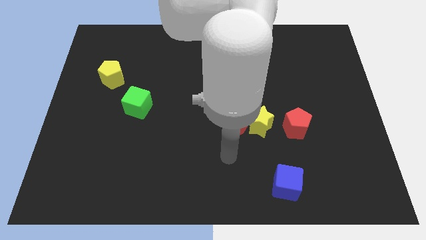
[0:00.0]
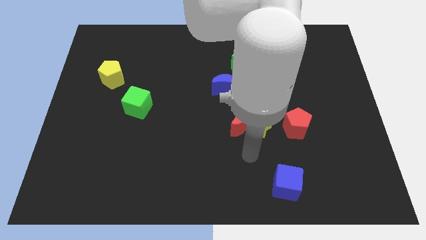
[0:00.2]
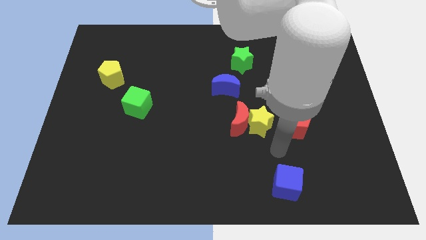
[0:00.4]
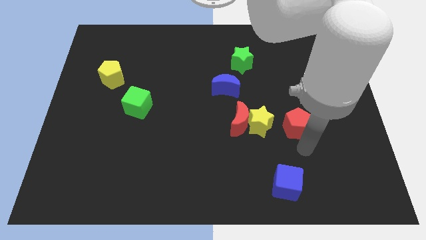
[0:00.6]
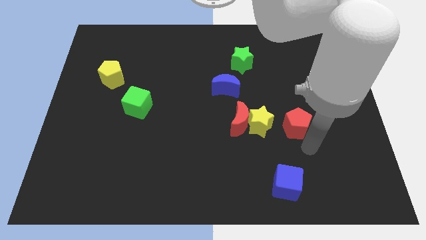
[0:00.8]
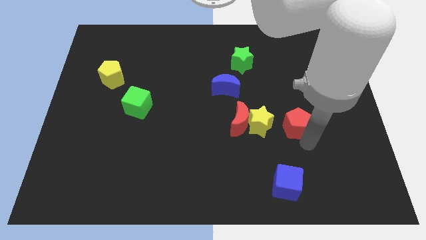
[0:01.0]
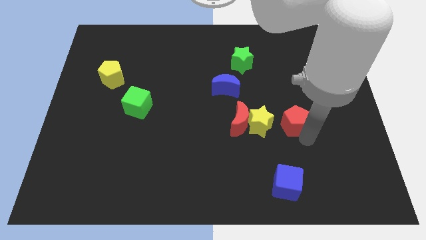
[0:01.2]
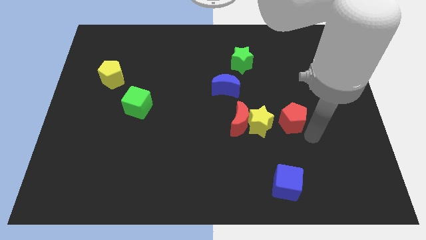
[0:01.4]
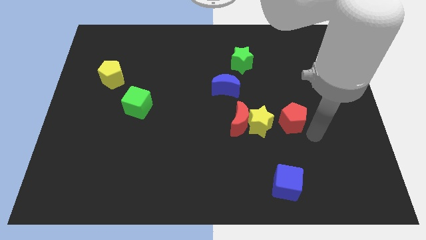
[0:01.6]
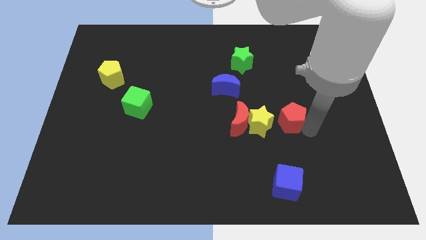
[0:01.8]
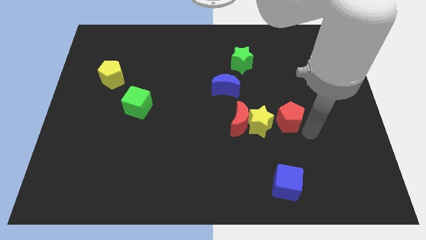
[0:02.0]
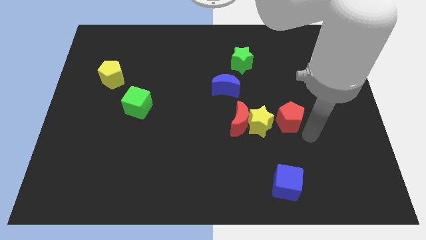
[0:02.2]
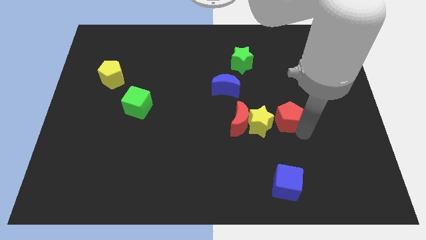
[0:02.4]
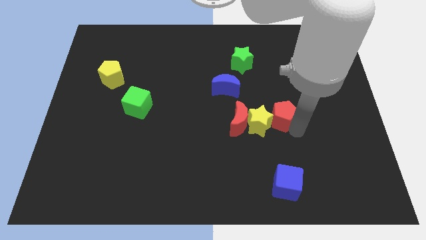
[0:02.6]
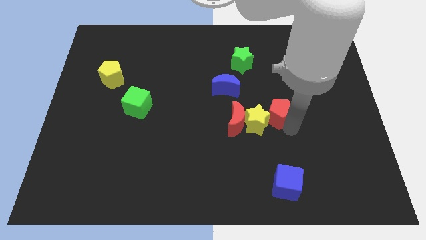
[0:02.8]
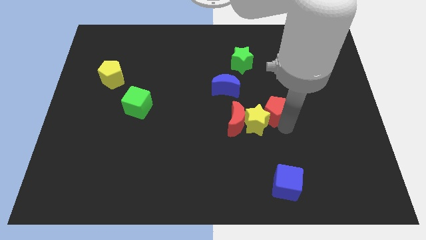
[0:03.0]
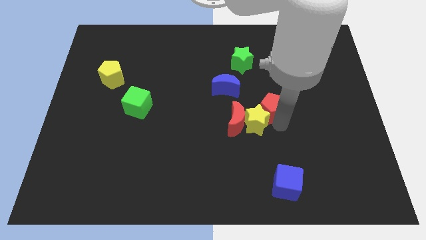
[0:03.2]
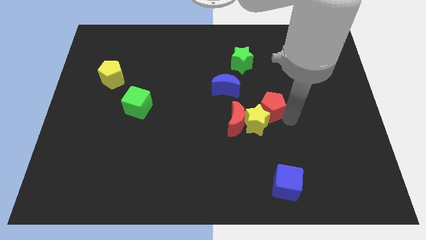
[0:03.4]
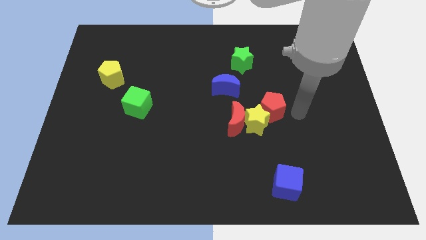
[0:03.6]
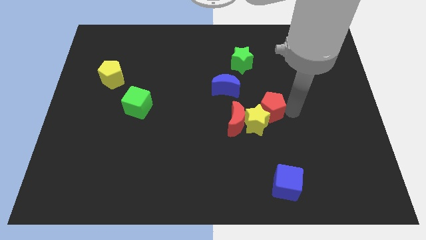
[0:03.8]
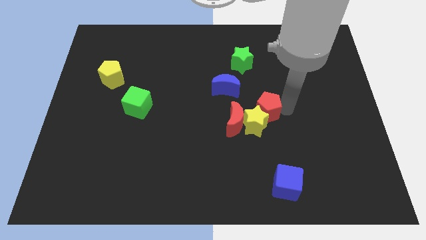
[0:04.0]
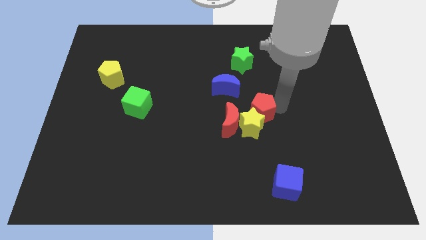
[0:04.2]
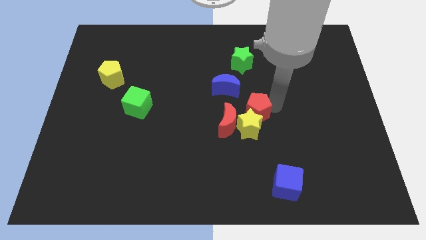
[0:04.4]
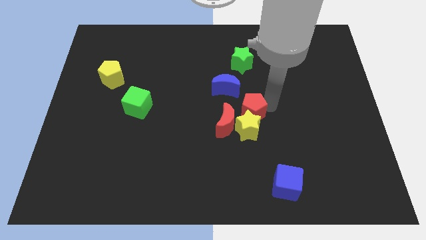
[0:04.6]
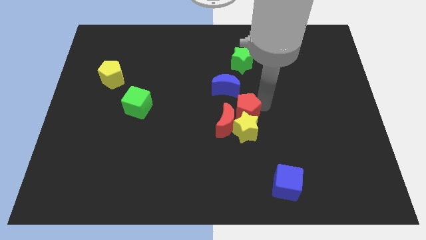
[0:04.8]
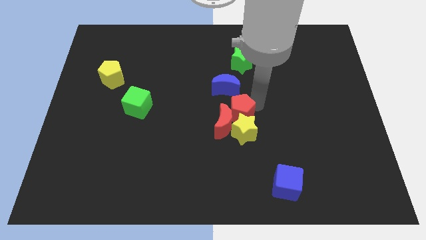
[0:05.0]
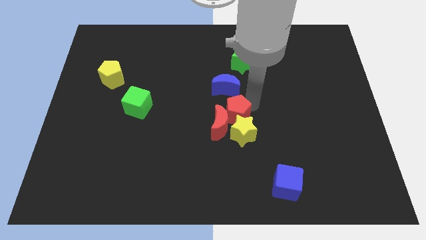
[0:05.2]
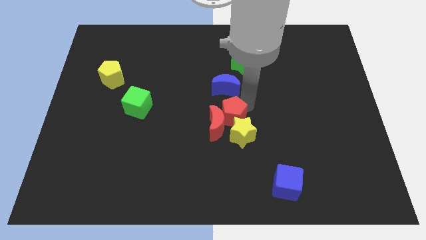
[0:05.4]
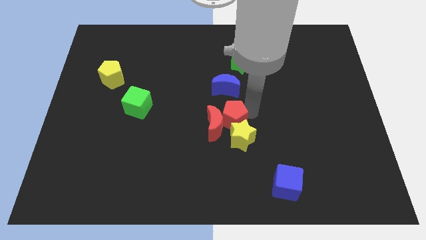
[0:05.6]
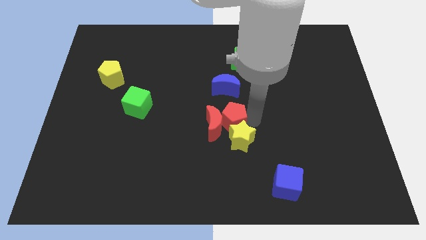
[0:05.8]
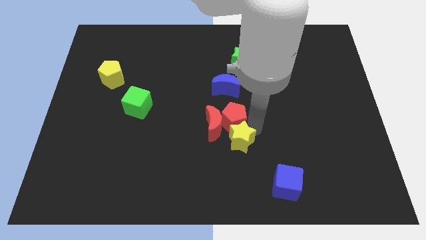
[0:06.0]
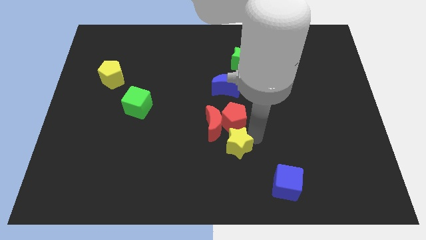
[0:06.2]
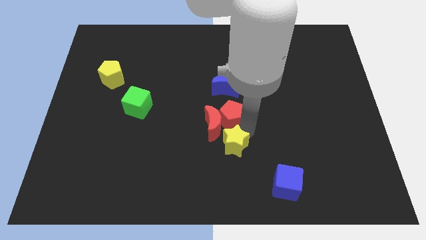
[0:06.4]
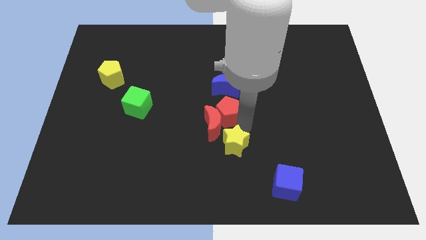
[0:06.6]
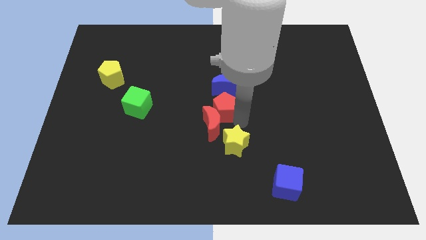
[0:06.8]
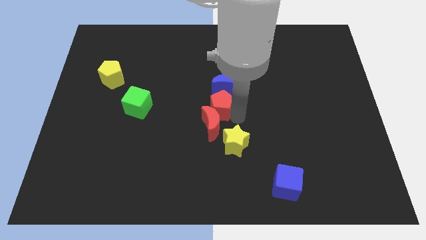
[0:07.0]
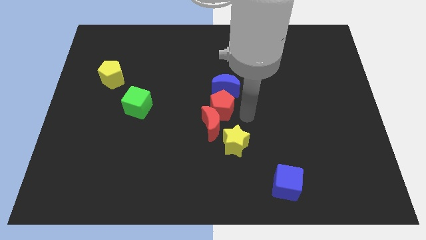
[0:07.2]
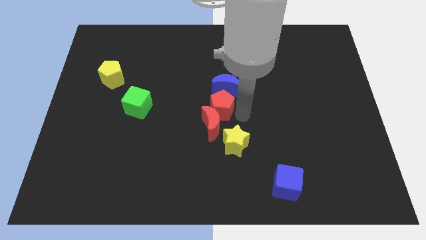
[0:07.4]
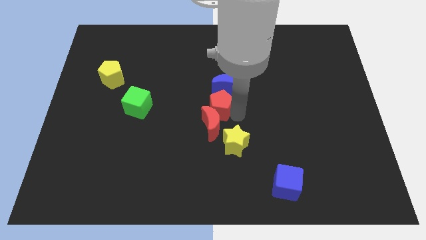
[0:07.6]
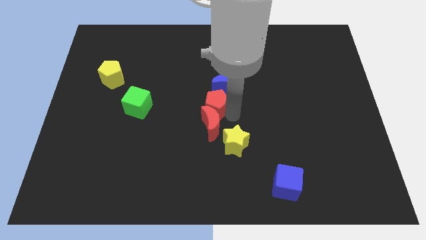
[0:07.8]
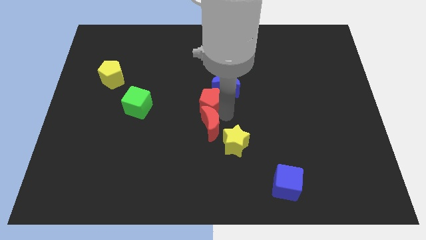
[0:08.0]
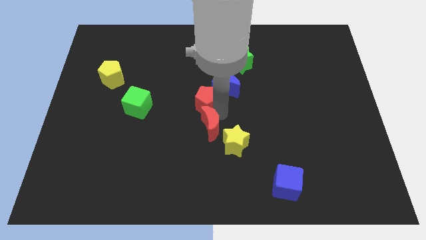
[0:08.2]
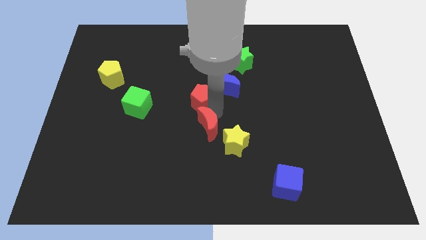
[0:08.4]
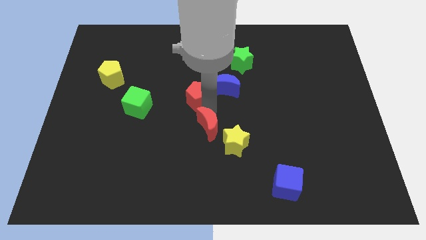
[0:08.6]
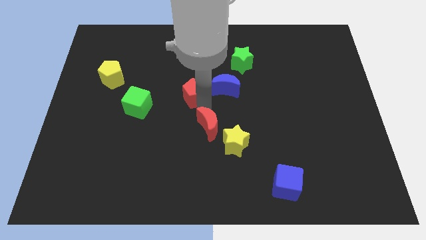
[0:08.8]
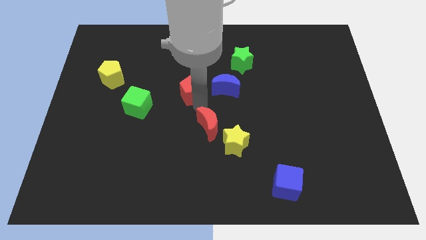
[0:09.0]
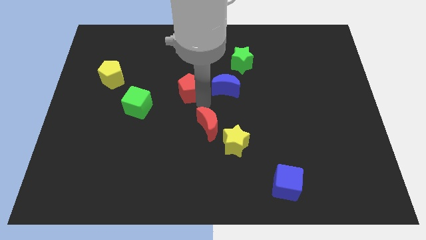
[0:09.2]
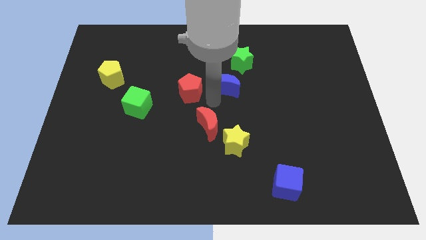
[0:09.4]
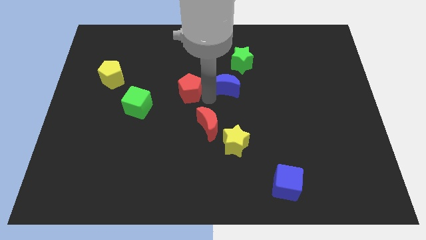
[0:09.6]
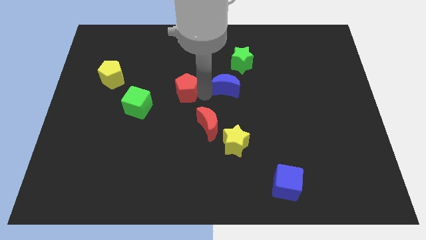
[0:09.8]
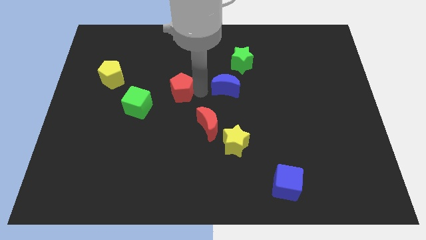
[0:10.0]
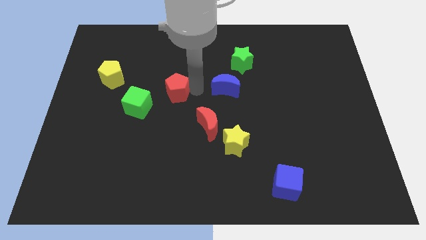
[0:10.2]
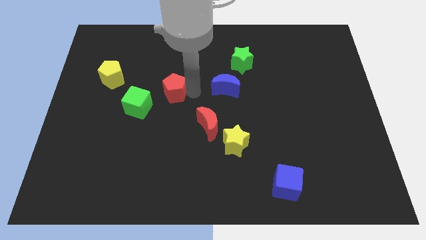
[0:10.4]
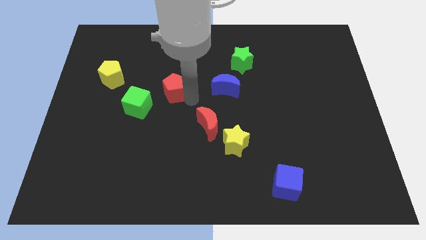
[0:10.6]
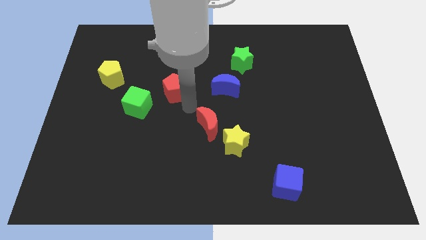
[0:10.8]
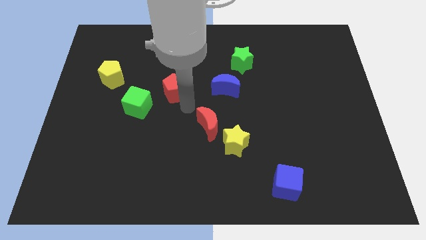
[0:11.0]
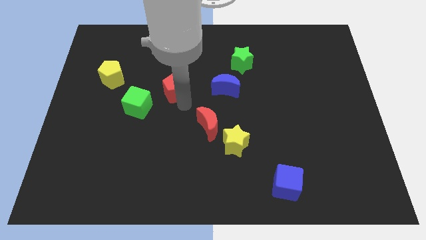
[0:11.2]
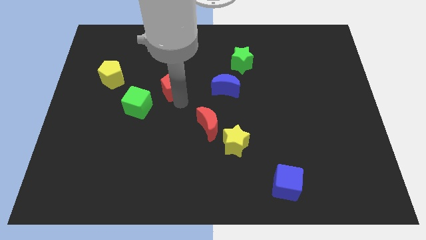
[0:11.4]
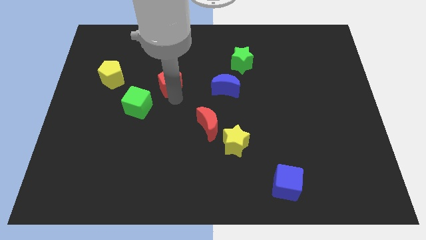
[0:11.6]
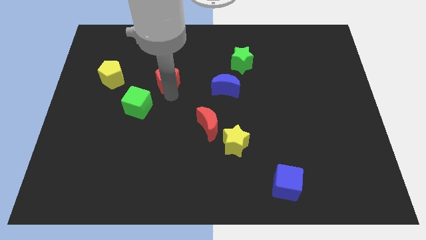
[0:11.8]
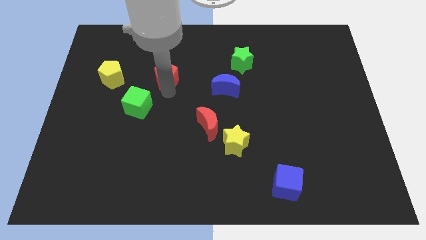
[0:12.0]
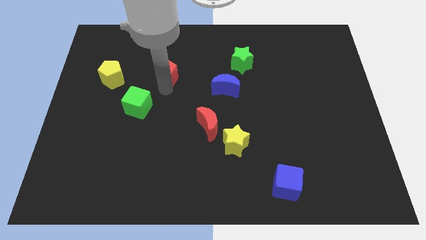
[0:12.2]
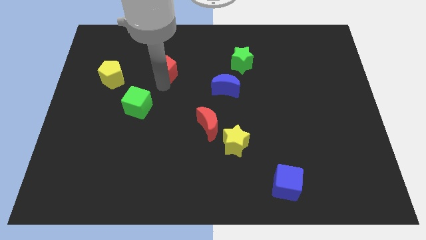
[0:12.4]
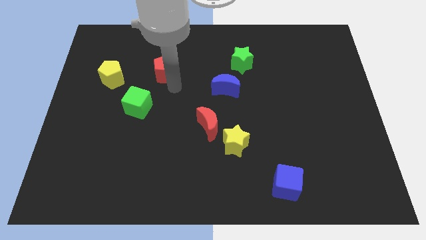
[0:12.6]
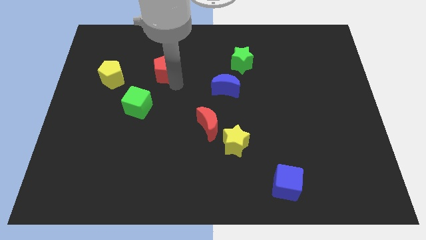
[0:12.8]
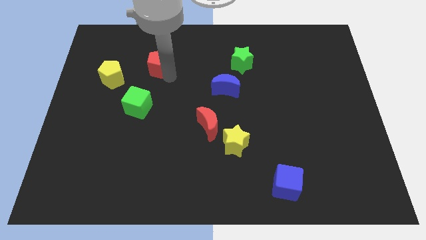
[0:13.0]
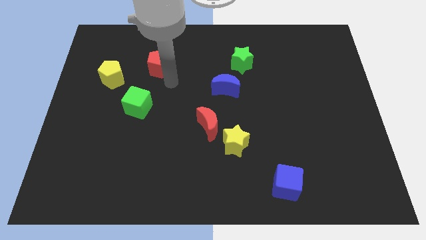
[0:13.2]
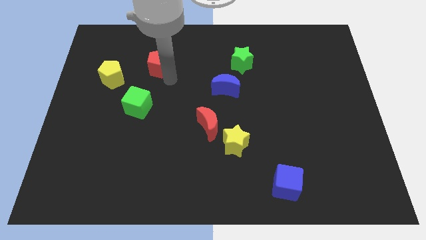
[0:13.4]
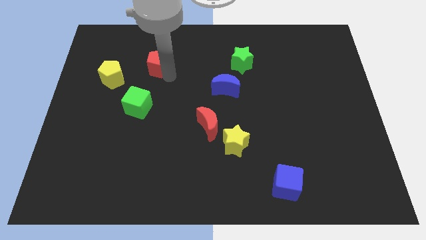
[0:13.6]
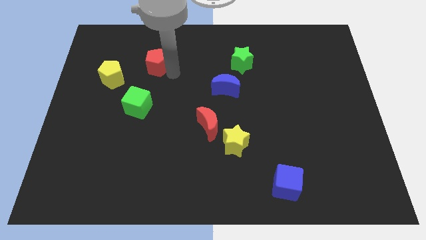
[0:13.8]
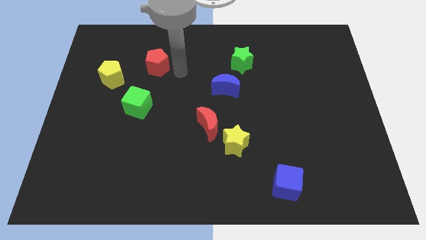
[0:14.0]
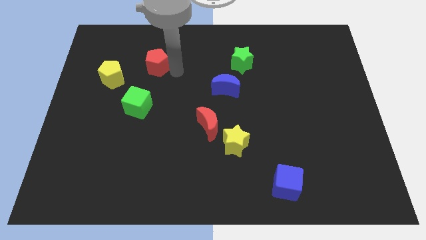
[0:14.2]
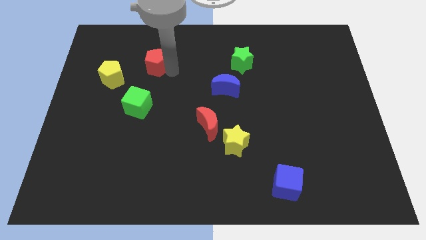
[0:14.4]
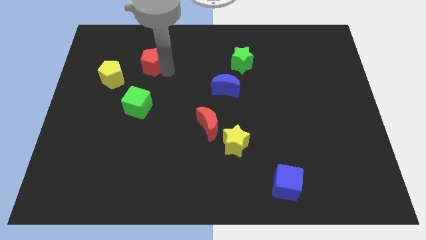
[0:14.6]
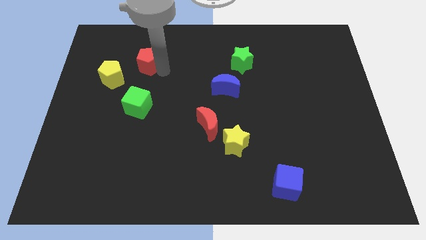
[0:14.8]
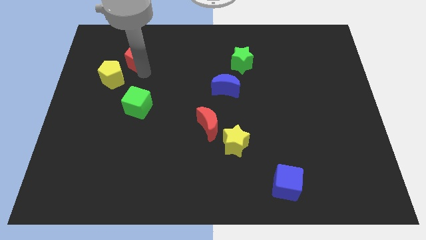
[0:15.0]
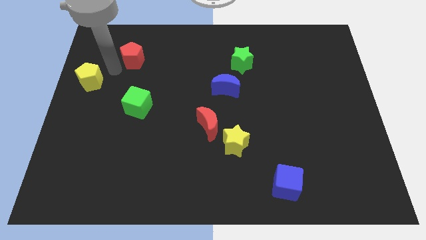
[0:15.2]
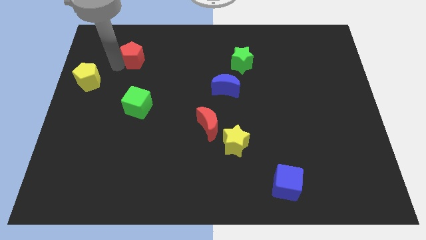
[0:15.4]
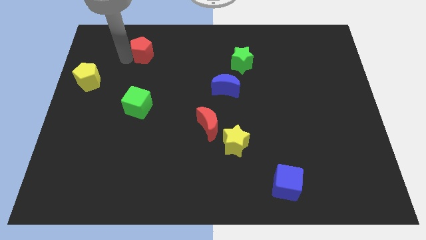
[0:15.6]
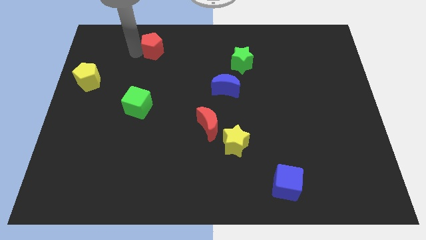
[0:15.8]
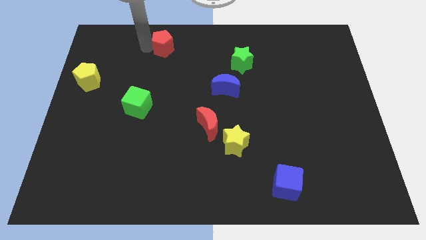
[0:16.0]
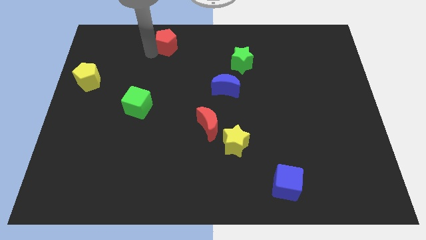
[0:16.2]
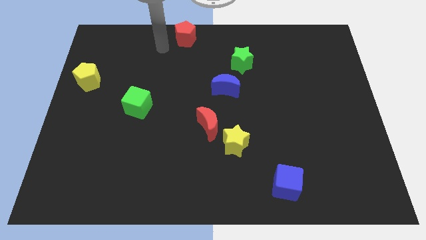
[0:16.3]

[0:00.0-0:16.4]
move the red pentagon to the top side
